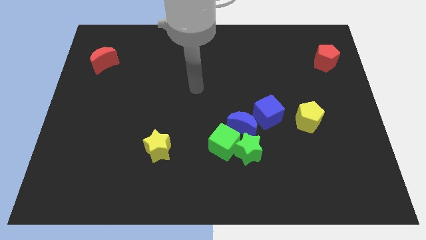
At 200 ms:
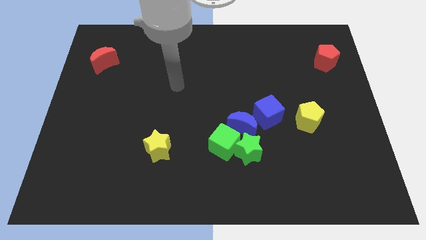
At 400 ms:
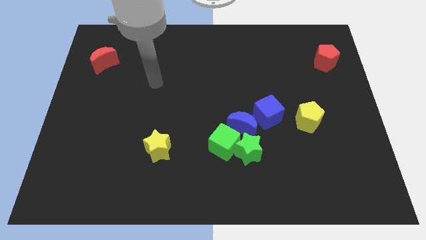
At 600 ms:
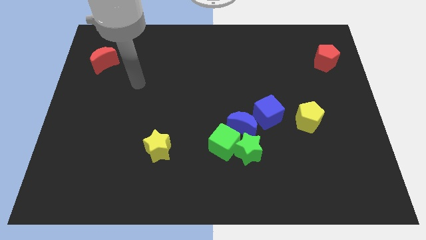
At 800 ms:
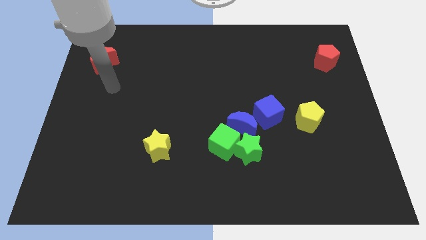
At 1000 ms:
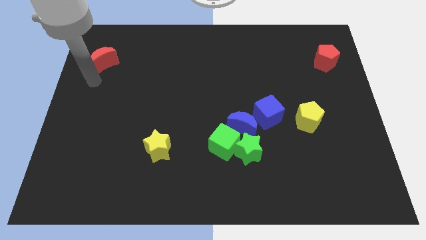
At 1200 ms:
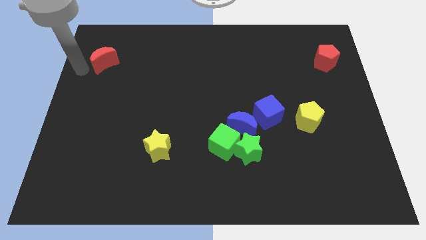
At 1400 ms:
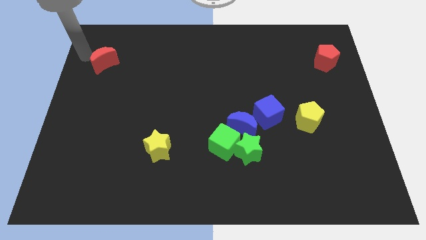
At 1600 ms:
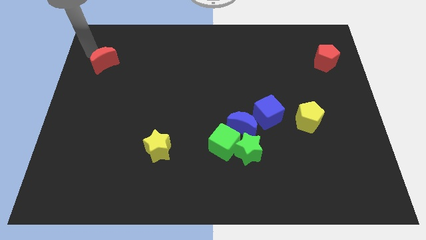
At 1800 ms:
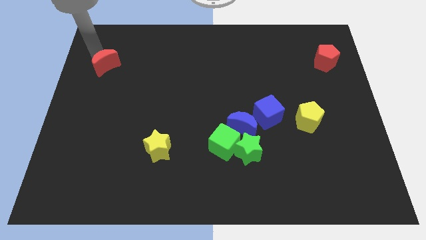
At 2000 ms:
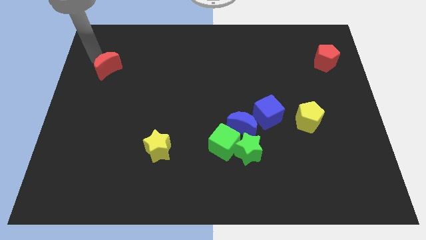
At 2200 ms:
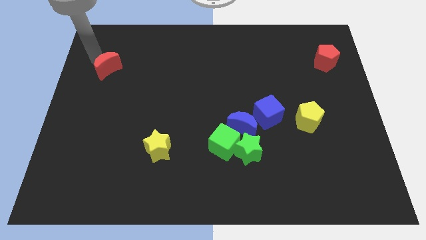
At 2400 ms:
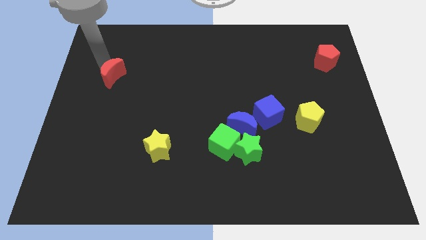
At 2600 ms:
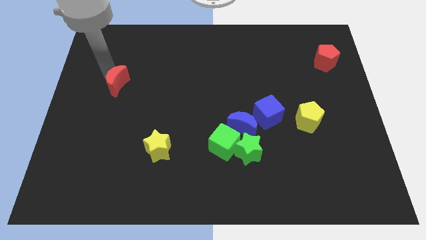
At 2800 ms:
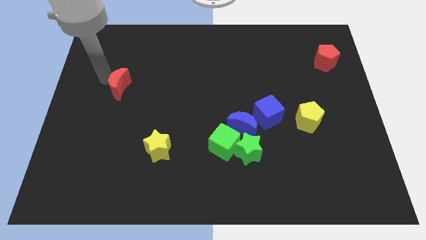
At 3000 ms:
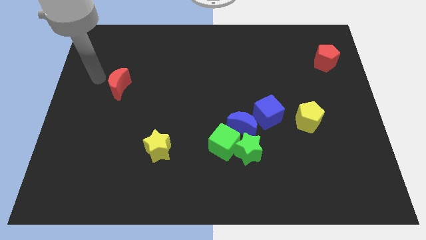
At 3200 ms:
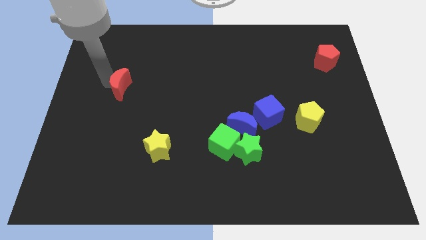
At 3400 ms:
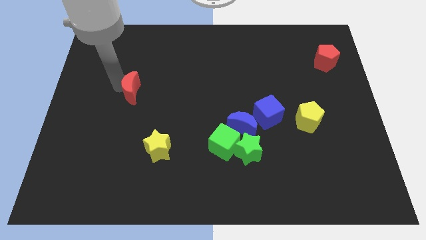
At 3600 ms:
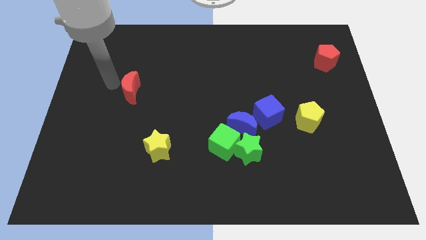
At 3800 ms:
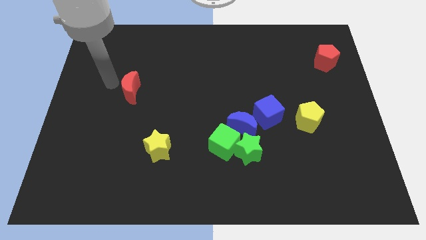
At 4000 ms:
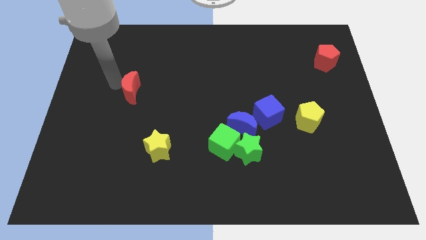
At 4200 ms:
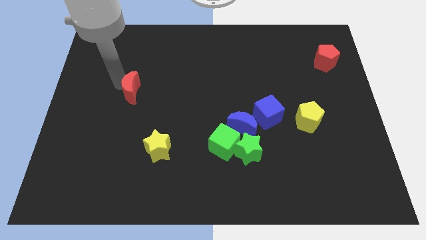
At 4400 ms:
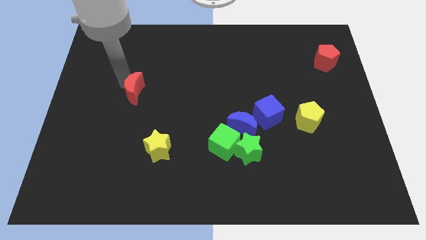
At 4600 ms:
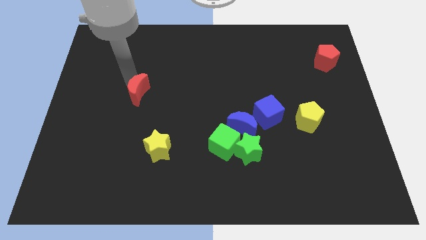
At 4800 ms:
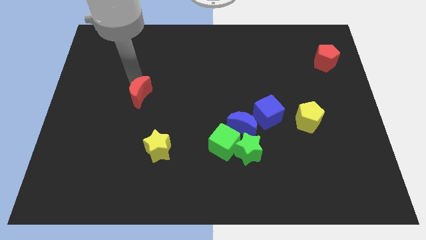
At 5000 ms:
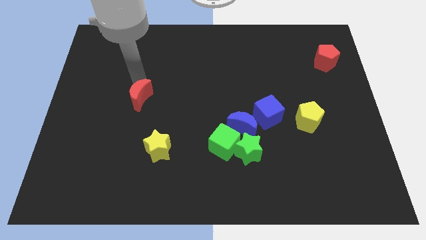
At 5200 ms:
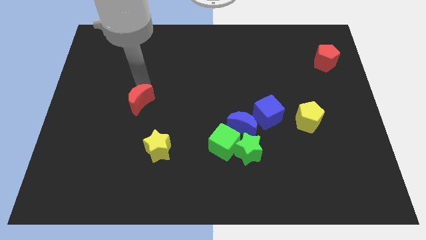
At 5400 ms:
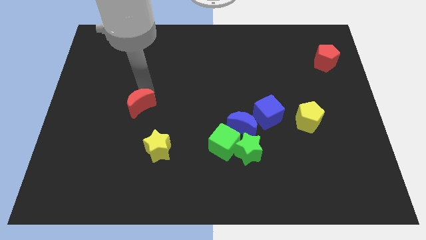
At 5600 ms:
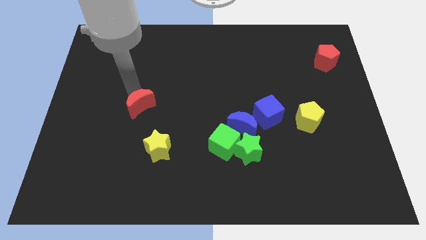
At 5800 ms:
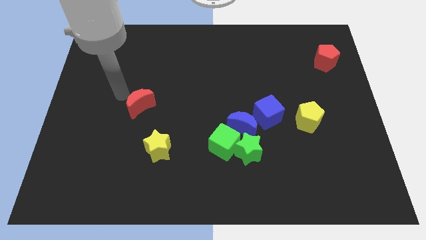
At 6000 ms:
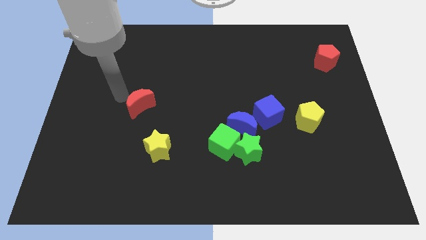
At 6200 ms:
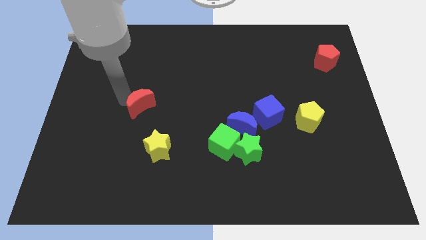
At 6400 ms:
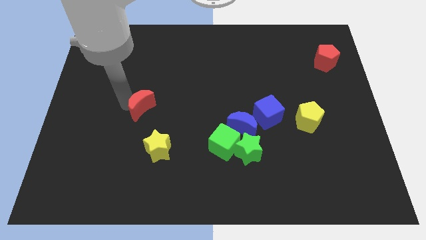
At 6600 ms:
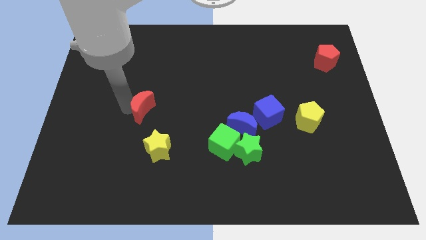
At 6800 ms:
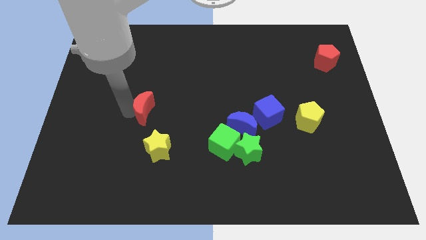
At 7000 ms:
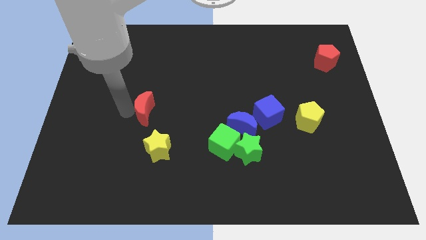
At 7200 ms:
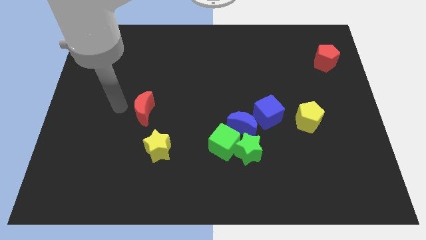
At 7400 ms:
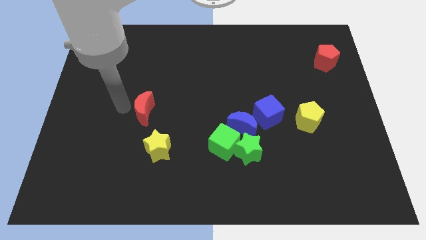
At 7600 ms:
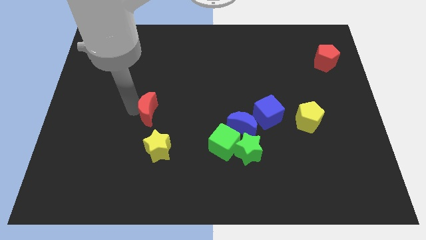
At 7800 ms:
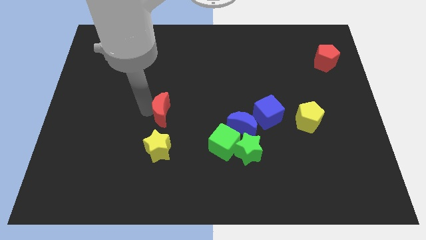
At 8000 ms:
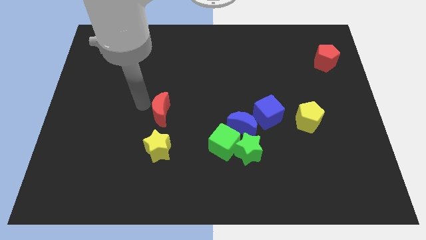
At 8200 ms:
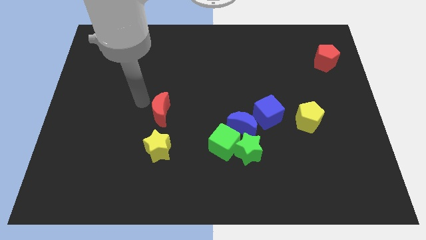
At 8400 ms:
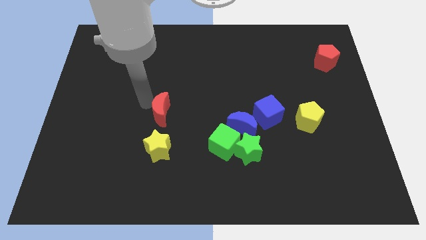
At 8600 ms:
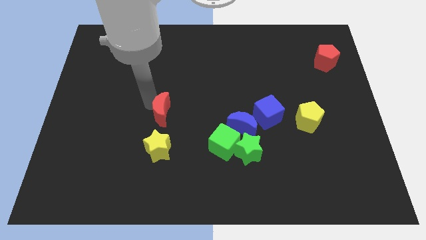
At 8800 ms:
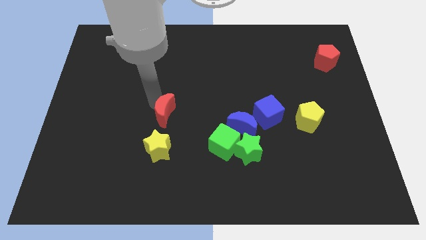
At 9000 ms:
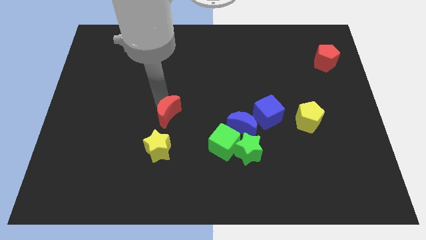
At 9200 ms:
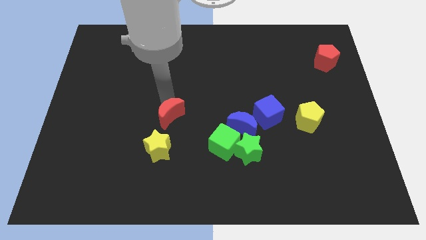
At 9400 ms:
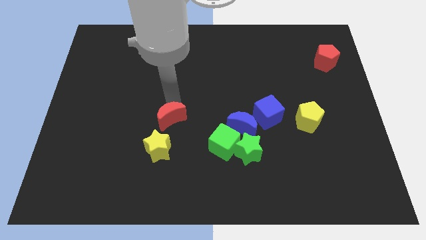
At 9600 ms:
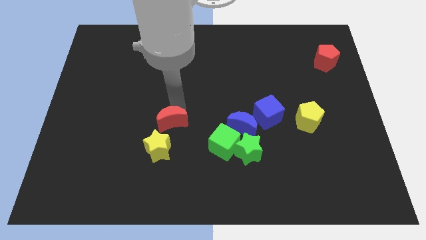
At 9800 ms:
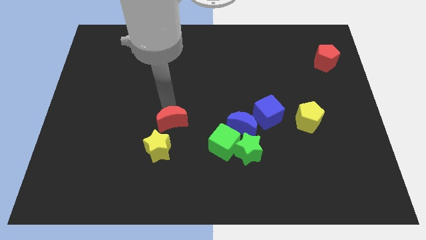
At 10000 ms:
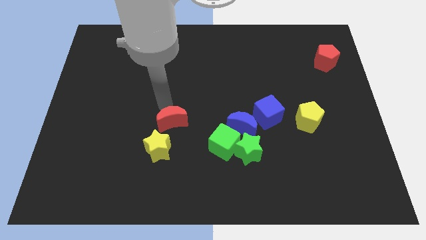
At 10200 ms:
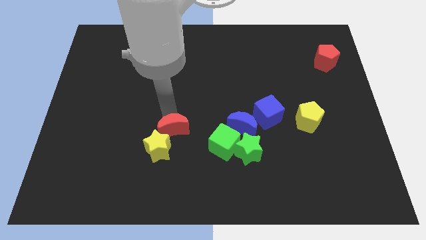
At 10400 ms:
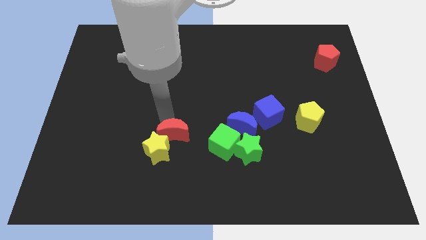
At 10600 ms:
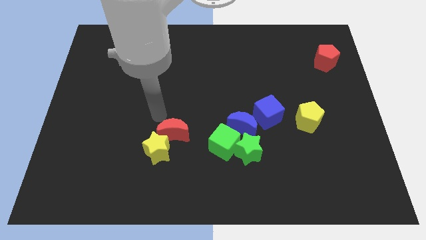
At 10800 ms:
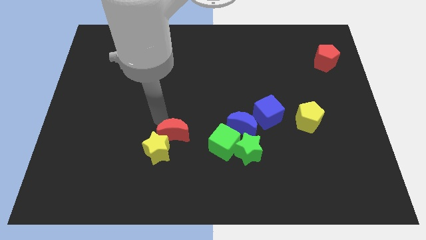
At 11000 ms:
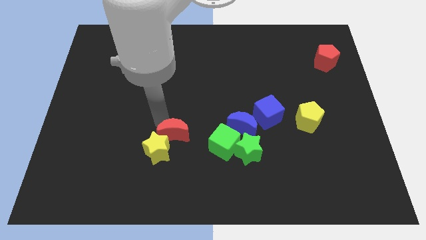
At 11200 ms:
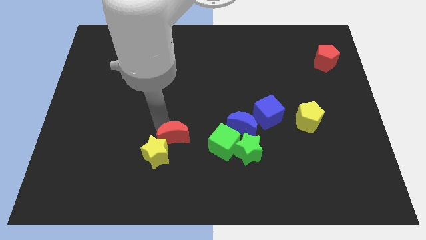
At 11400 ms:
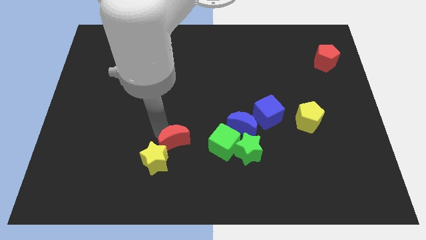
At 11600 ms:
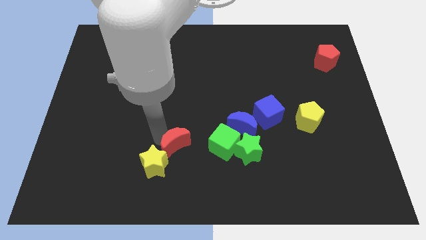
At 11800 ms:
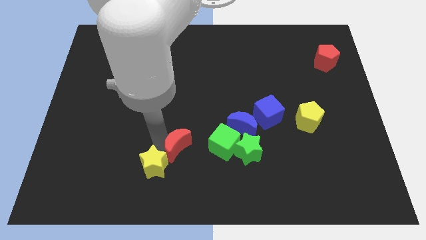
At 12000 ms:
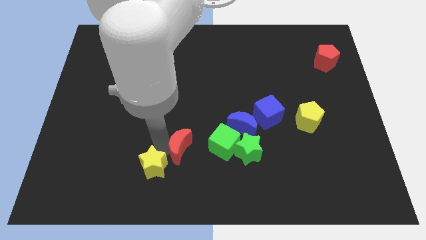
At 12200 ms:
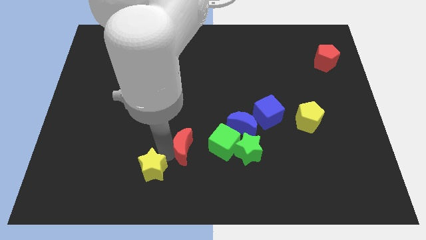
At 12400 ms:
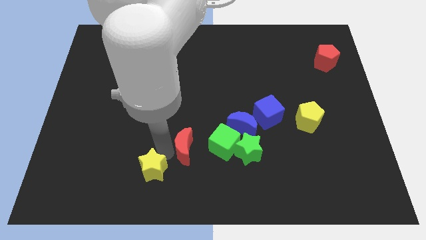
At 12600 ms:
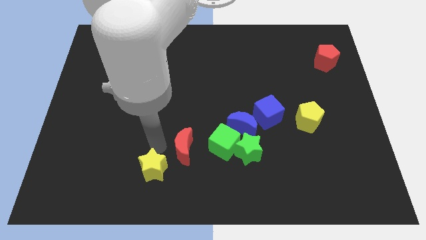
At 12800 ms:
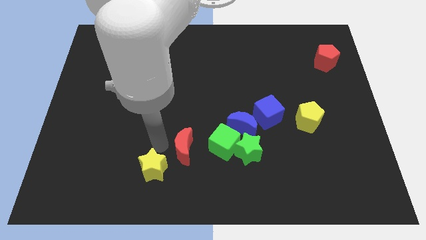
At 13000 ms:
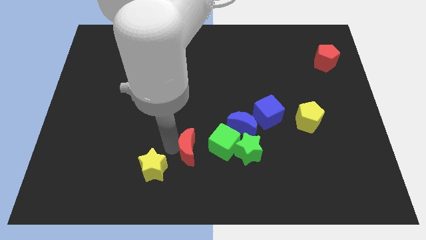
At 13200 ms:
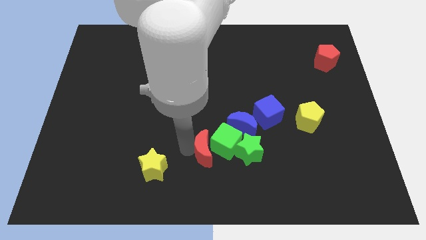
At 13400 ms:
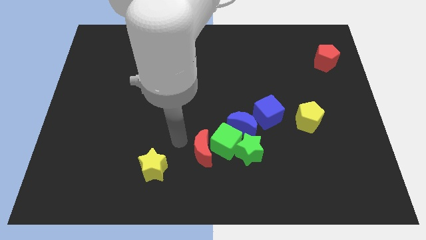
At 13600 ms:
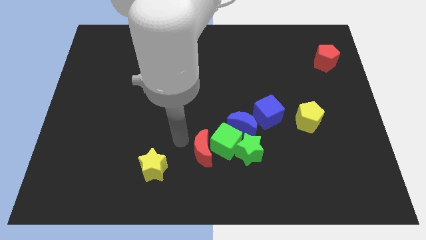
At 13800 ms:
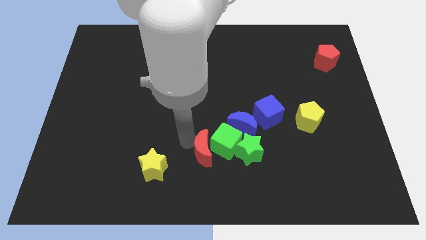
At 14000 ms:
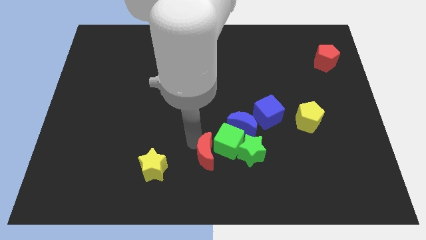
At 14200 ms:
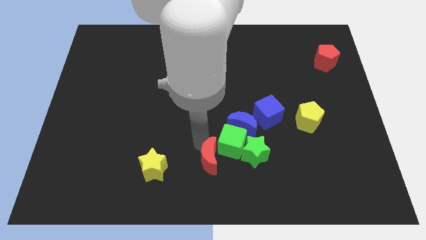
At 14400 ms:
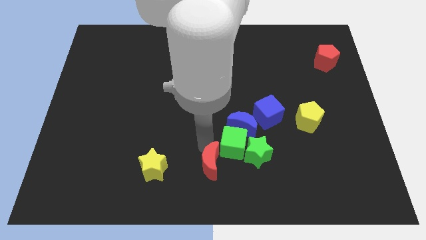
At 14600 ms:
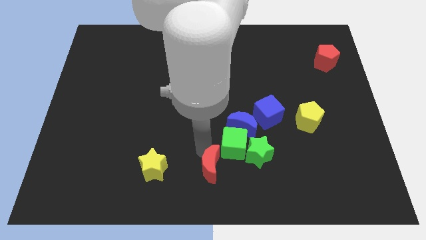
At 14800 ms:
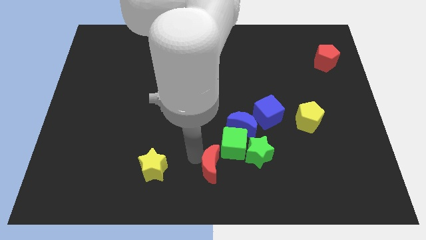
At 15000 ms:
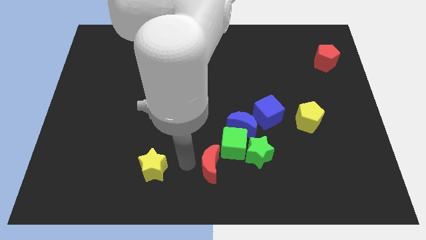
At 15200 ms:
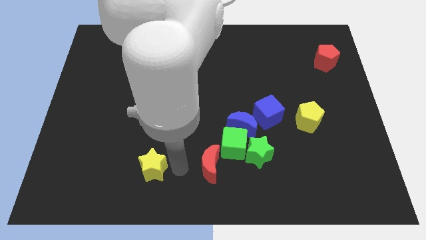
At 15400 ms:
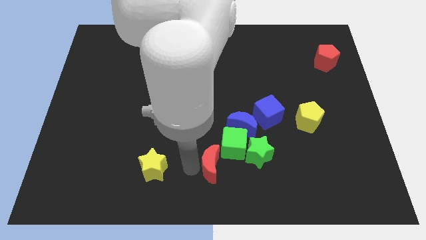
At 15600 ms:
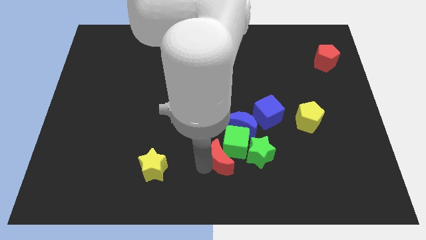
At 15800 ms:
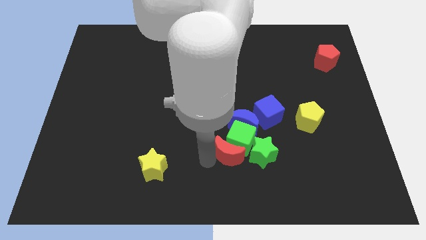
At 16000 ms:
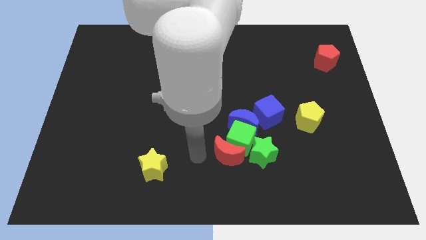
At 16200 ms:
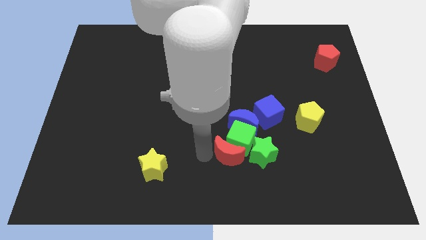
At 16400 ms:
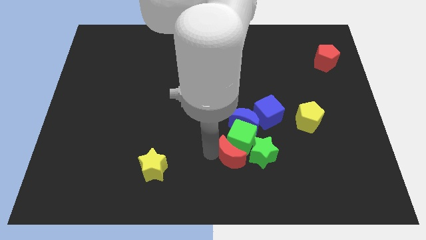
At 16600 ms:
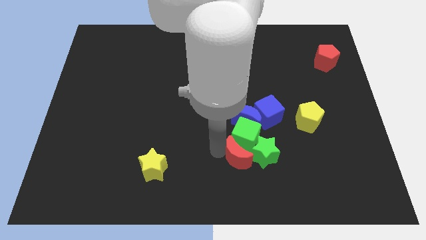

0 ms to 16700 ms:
slide the red moon to the green star
